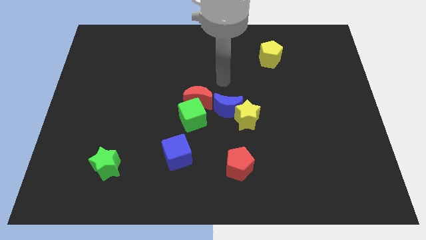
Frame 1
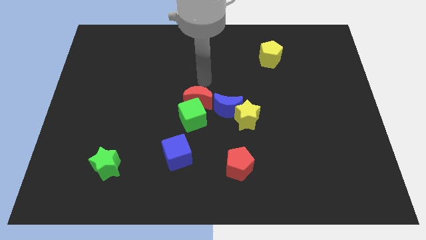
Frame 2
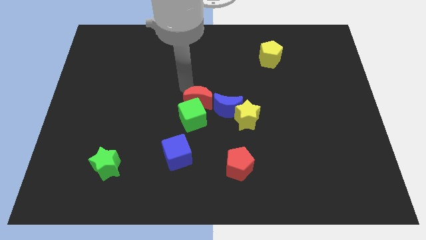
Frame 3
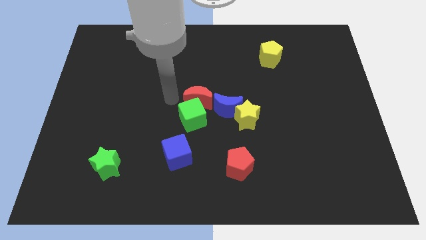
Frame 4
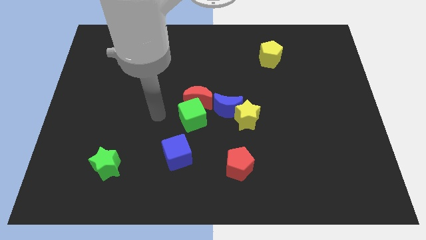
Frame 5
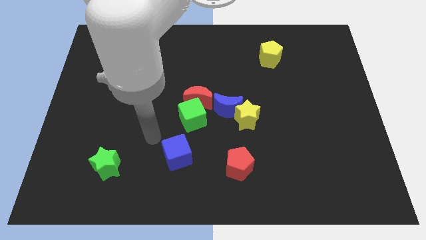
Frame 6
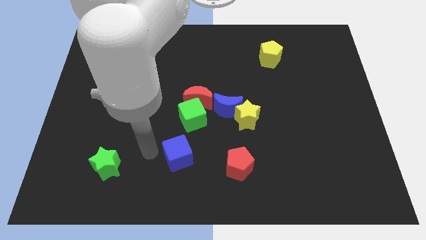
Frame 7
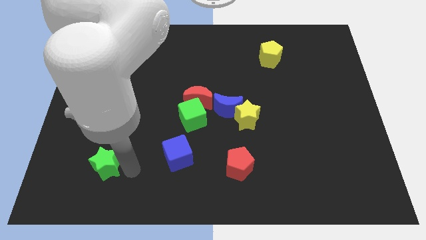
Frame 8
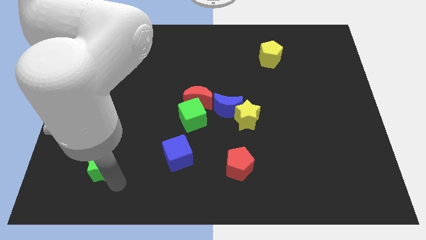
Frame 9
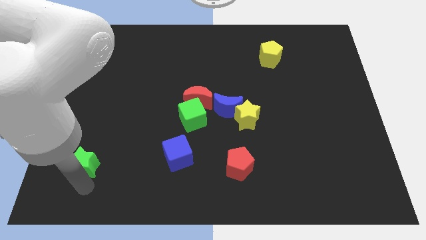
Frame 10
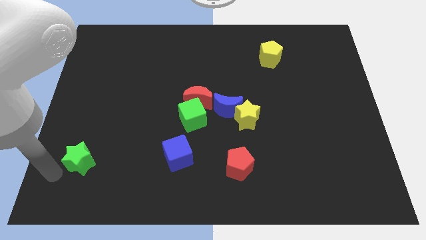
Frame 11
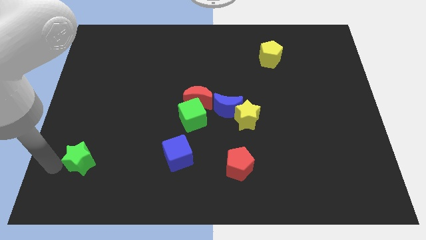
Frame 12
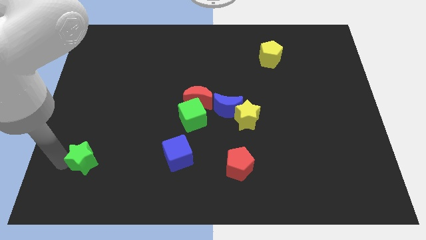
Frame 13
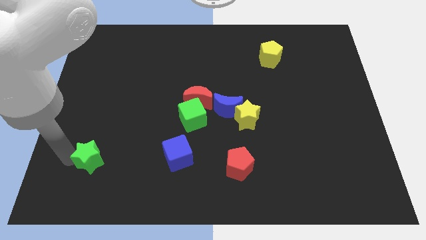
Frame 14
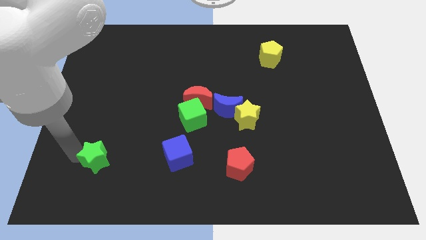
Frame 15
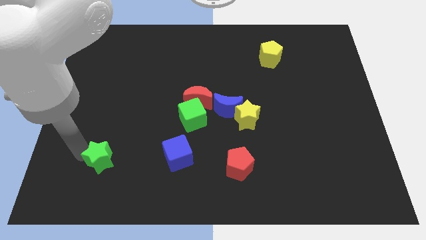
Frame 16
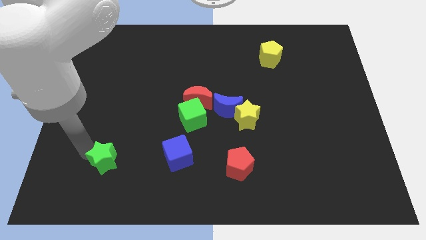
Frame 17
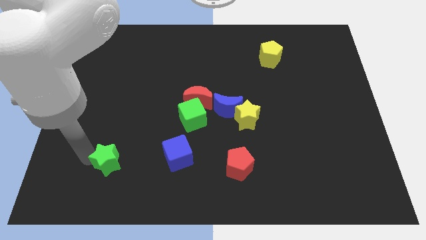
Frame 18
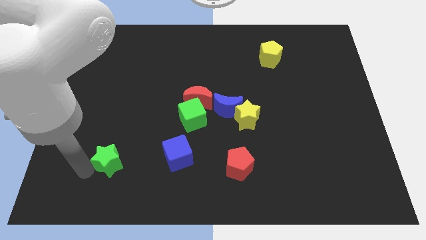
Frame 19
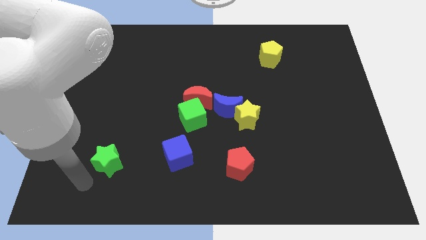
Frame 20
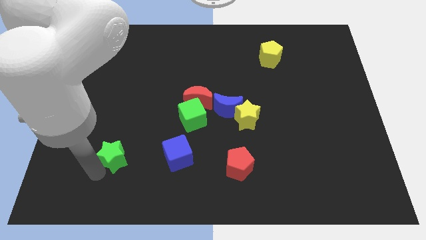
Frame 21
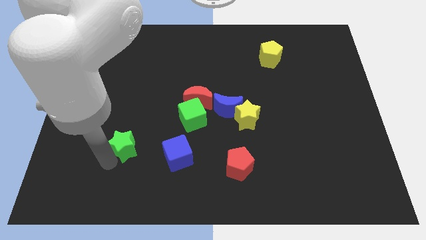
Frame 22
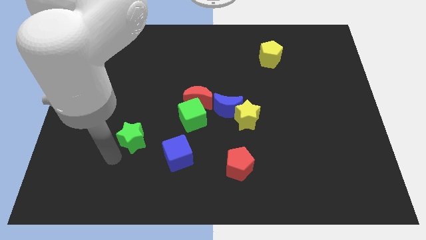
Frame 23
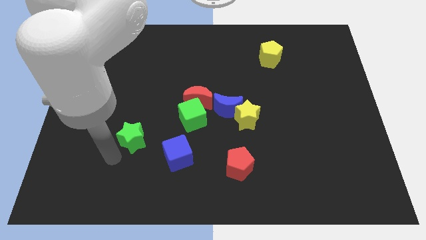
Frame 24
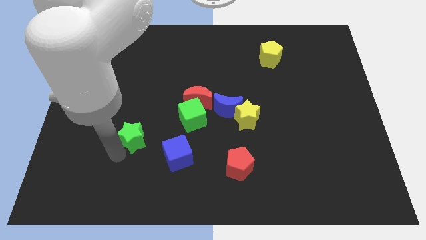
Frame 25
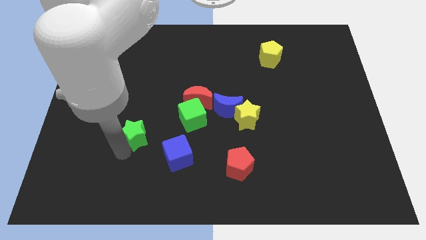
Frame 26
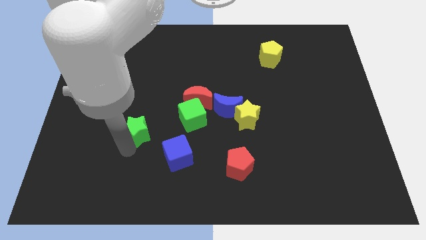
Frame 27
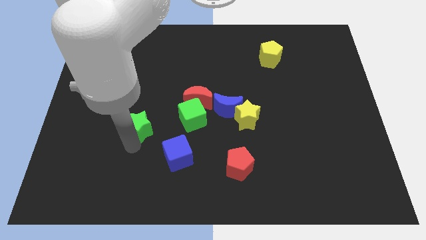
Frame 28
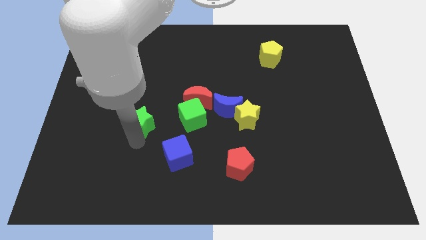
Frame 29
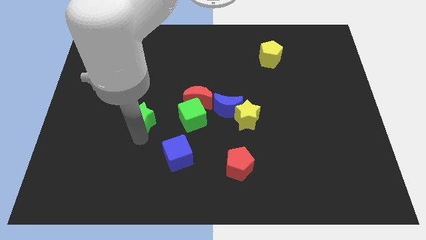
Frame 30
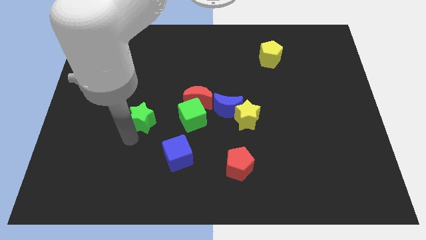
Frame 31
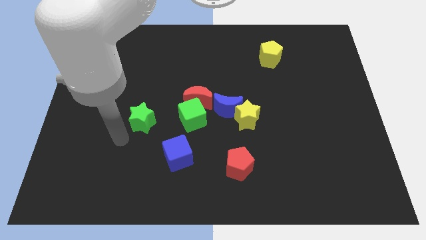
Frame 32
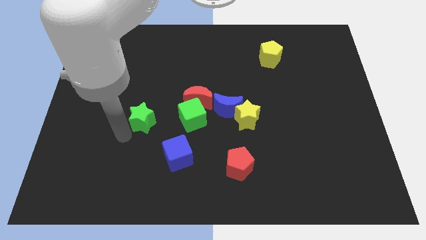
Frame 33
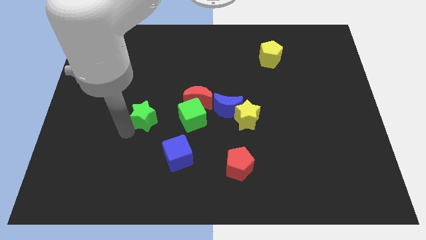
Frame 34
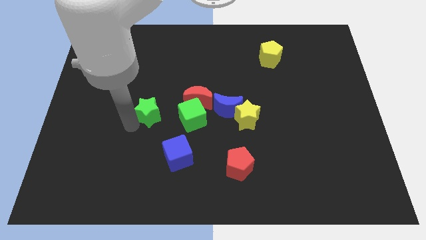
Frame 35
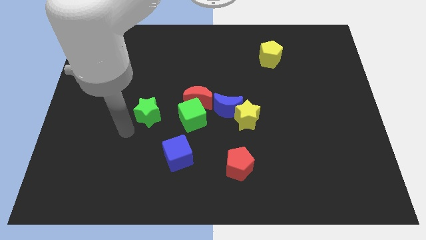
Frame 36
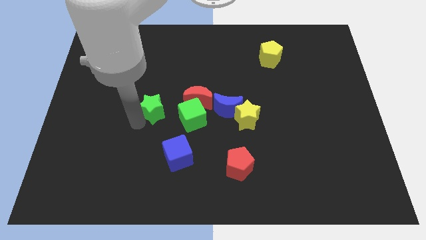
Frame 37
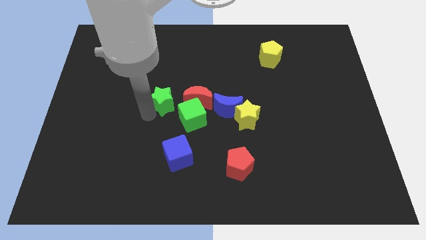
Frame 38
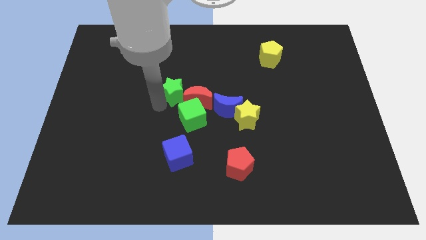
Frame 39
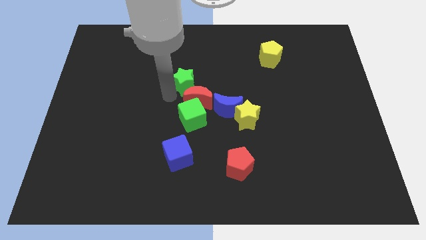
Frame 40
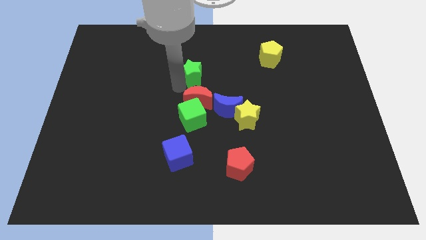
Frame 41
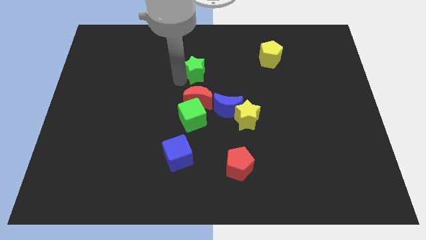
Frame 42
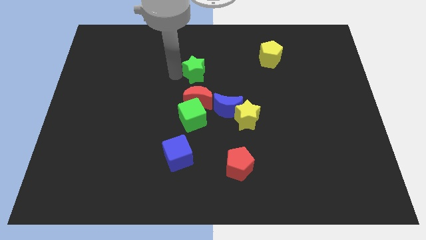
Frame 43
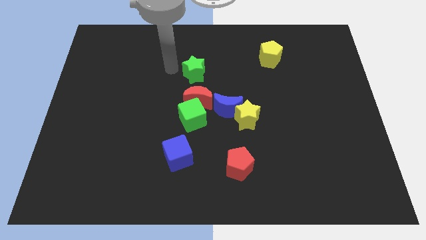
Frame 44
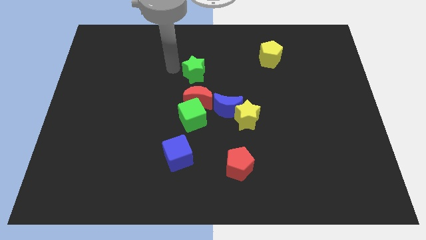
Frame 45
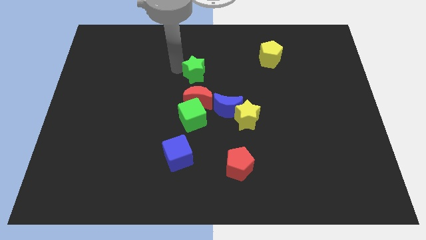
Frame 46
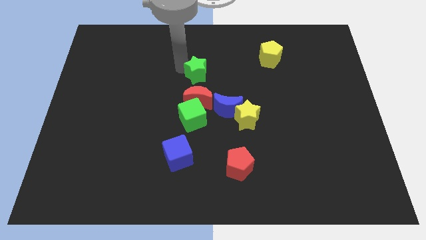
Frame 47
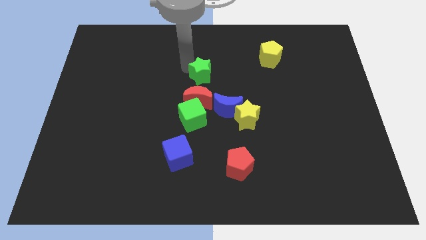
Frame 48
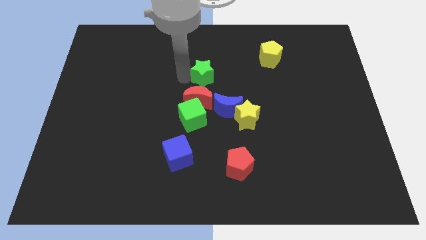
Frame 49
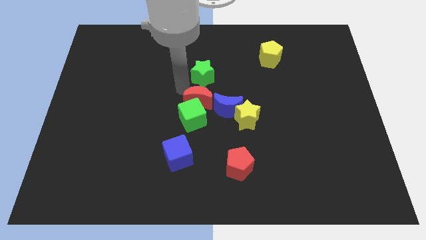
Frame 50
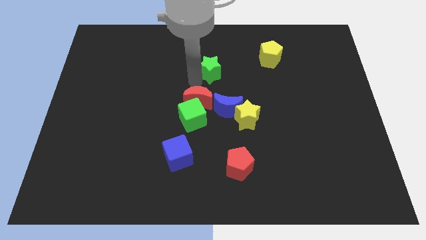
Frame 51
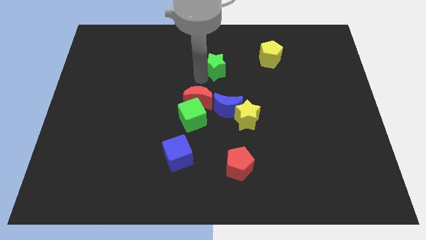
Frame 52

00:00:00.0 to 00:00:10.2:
slide the green star just left of the yellow pentagon

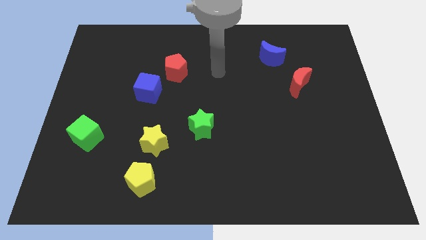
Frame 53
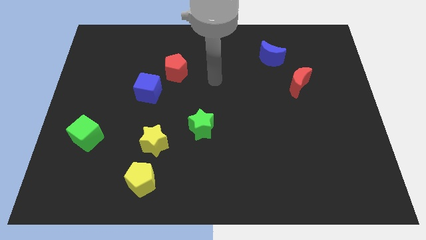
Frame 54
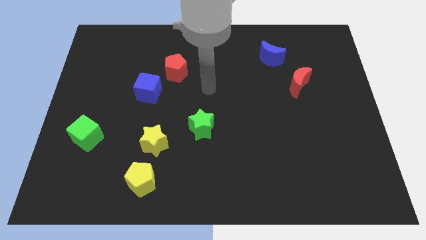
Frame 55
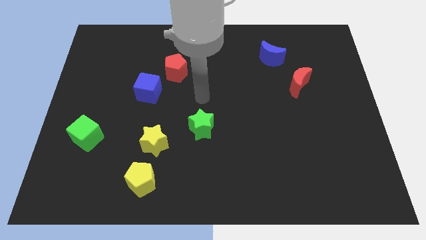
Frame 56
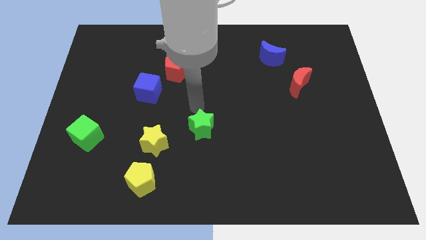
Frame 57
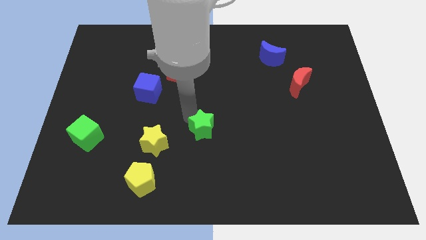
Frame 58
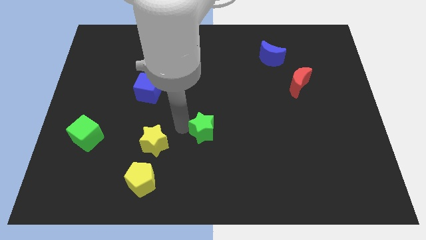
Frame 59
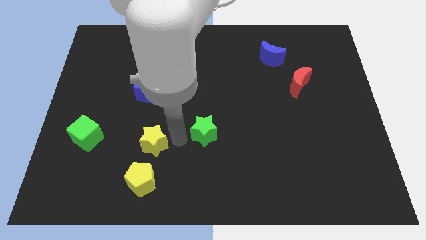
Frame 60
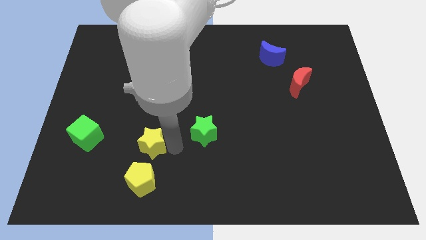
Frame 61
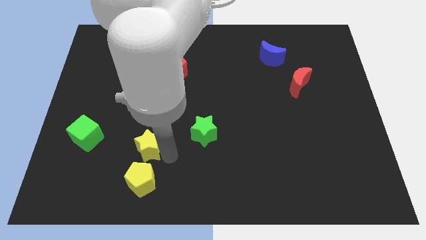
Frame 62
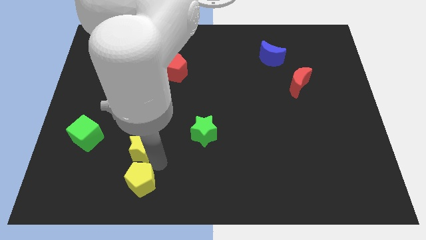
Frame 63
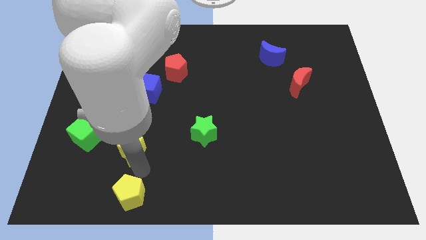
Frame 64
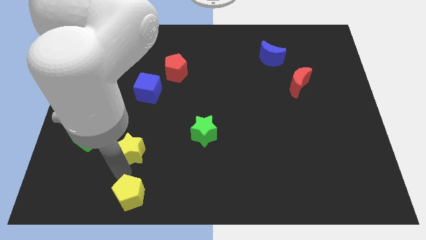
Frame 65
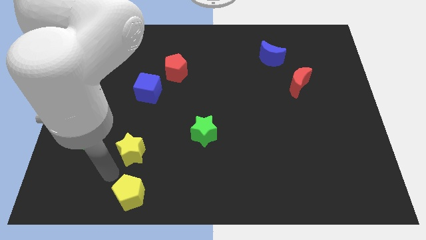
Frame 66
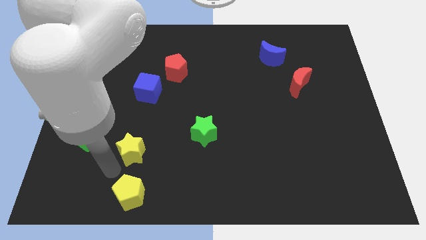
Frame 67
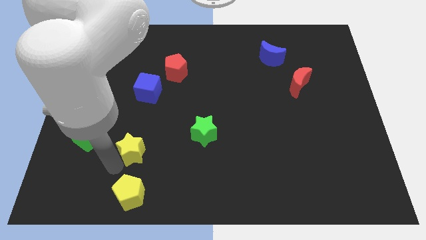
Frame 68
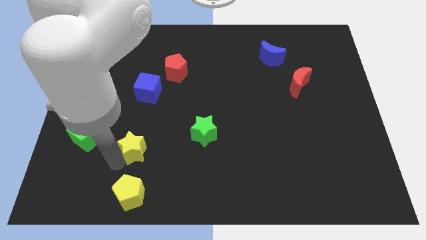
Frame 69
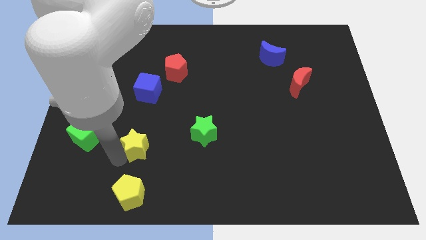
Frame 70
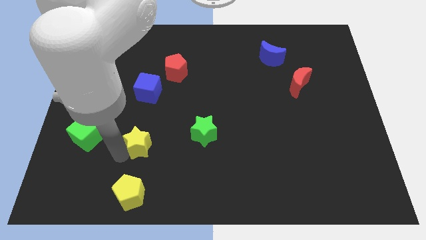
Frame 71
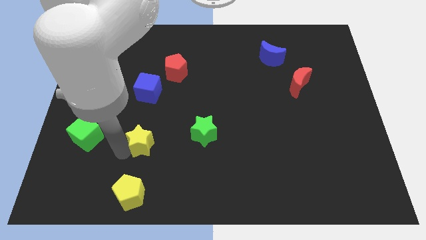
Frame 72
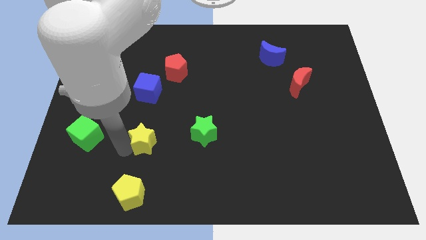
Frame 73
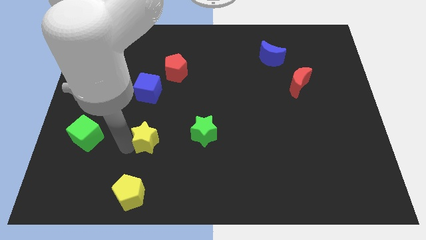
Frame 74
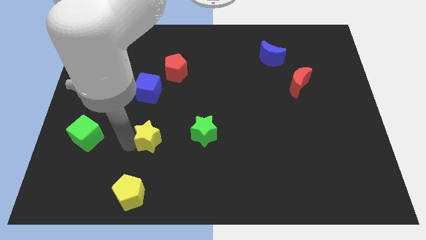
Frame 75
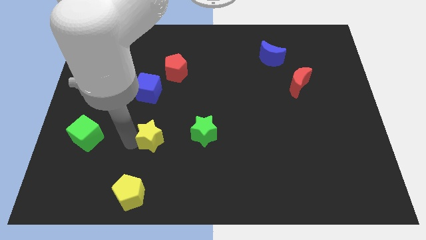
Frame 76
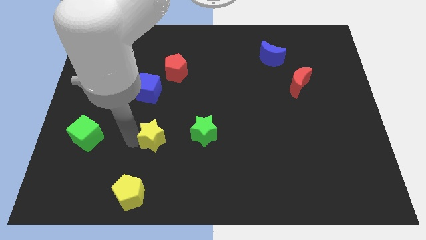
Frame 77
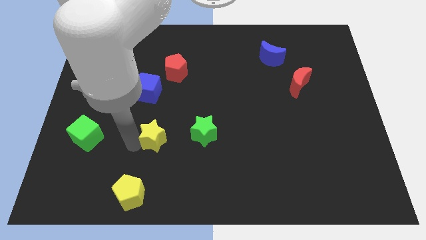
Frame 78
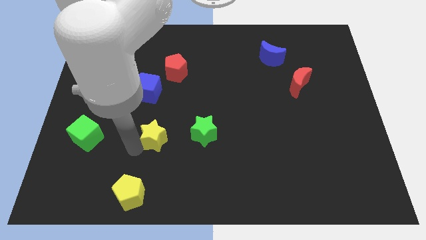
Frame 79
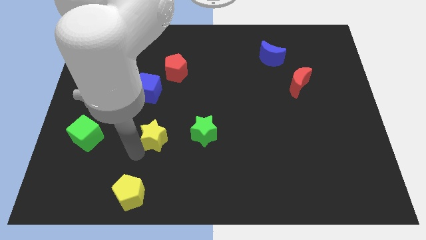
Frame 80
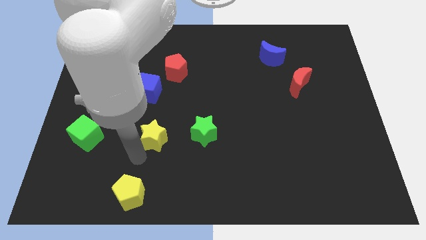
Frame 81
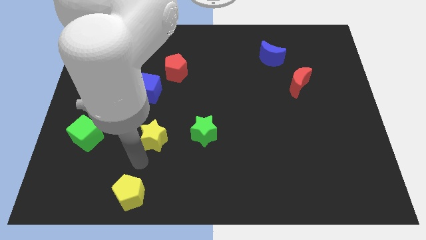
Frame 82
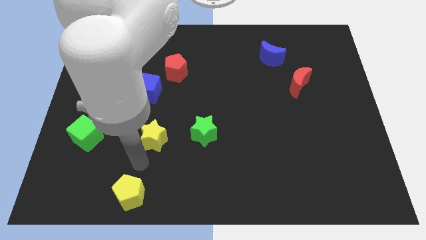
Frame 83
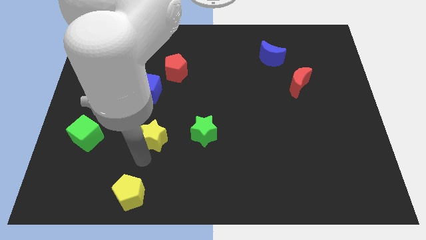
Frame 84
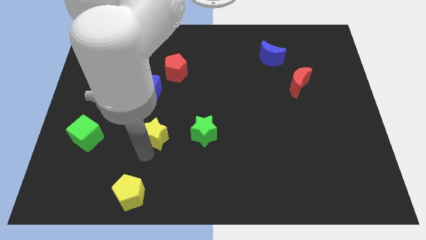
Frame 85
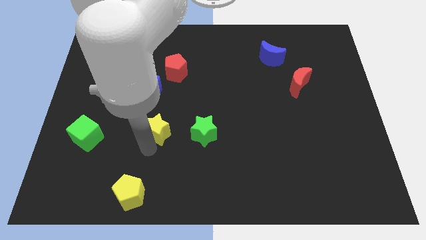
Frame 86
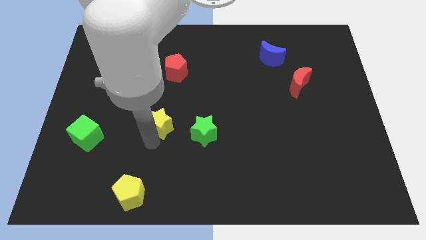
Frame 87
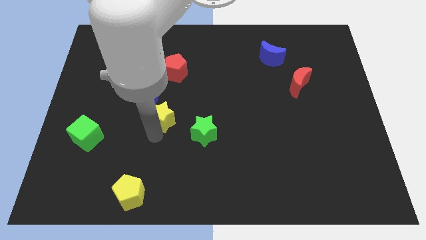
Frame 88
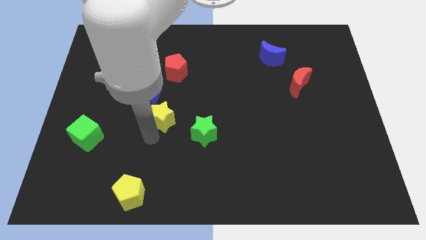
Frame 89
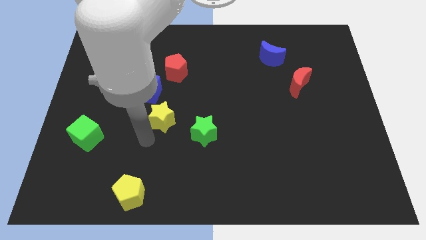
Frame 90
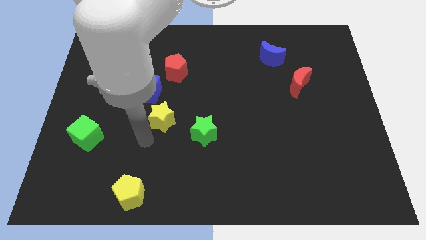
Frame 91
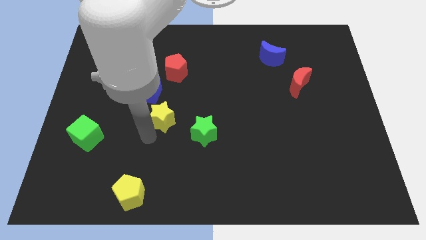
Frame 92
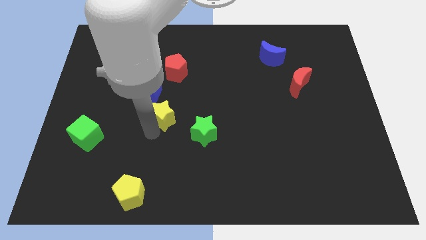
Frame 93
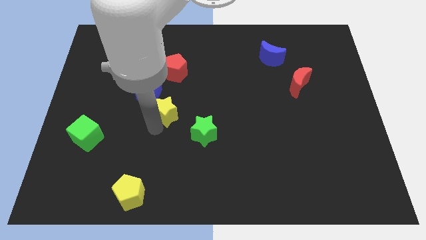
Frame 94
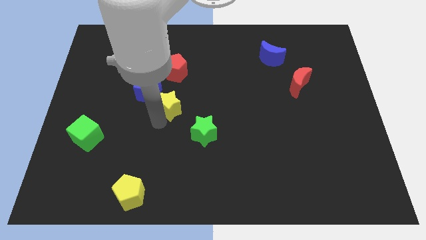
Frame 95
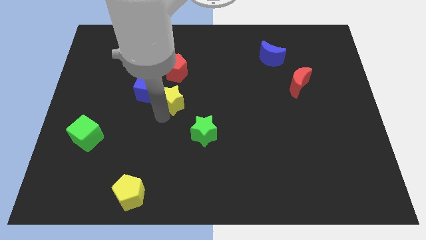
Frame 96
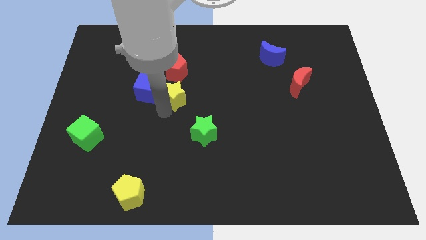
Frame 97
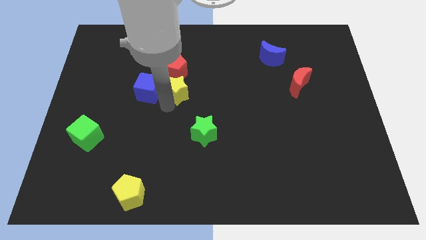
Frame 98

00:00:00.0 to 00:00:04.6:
push the yellow star to the bottom right side of the red pentagon
